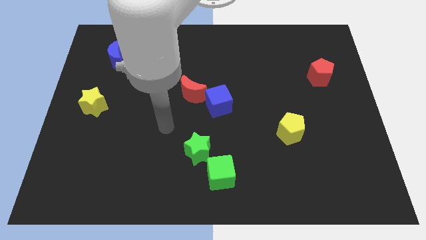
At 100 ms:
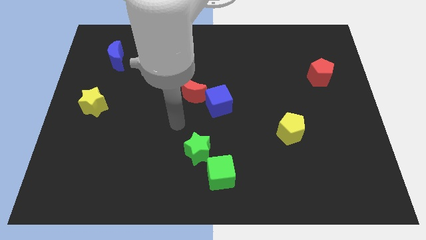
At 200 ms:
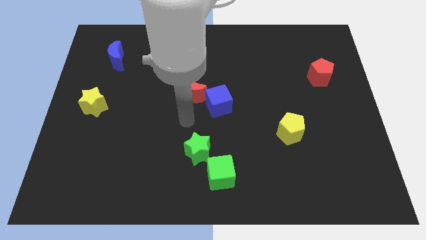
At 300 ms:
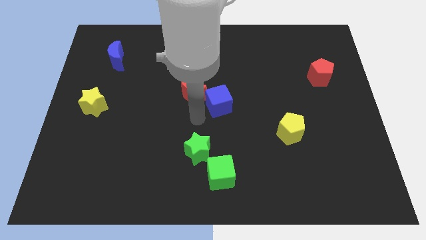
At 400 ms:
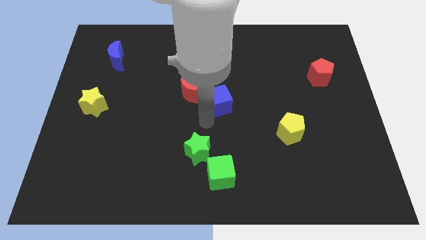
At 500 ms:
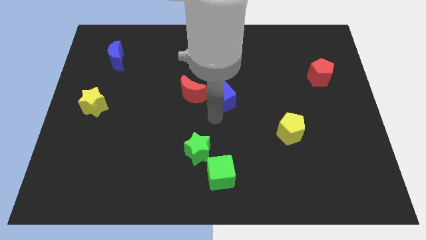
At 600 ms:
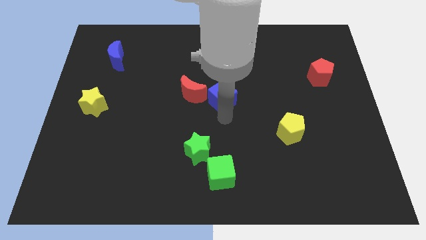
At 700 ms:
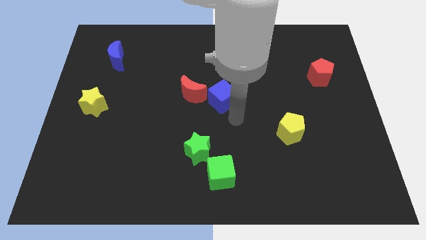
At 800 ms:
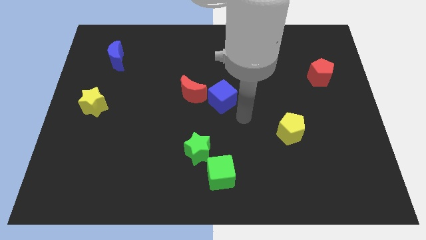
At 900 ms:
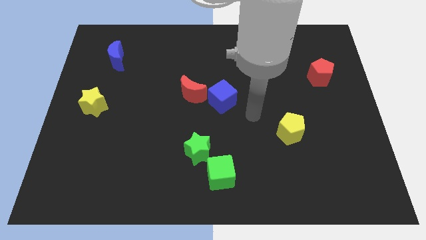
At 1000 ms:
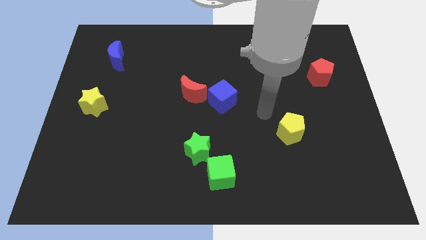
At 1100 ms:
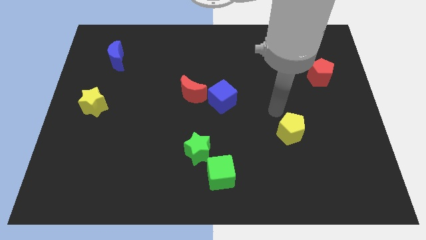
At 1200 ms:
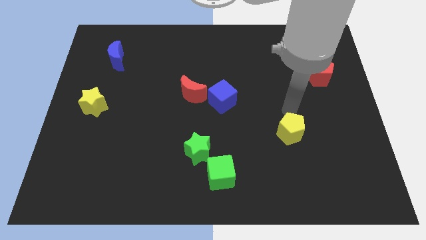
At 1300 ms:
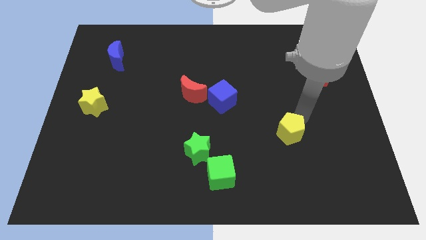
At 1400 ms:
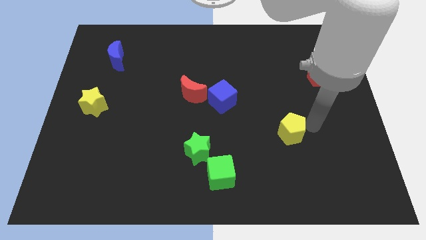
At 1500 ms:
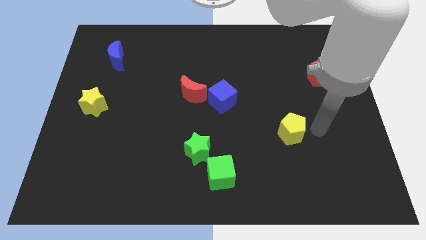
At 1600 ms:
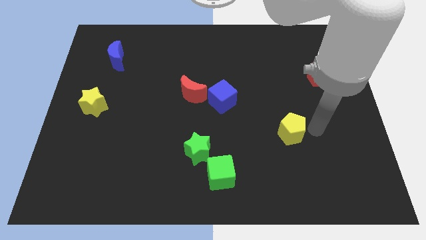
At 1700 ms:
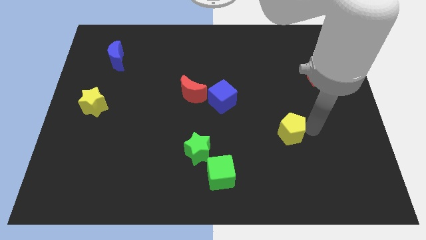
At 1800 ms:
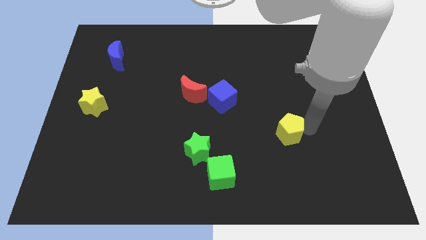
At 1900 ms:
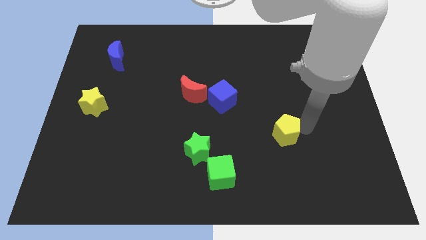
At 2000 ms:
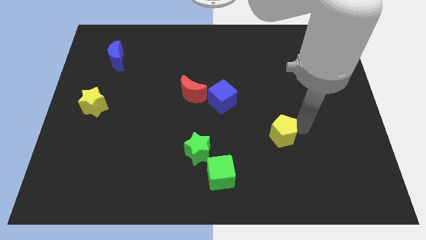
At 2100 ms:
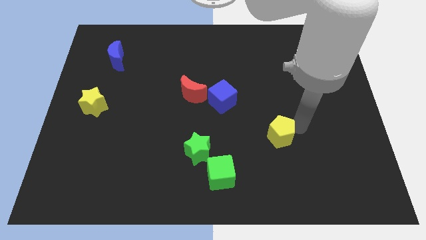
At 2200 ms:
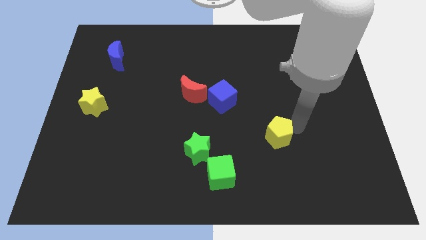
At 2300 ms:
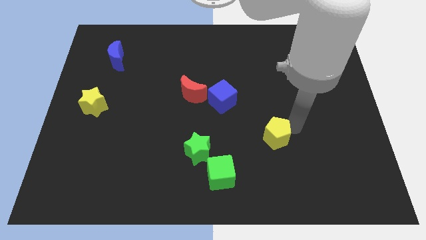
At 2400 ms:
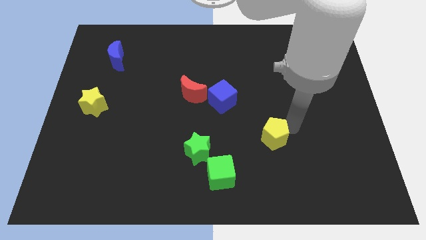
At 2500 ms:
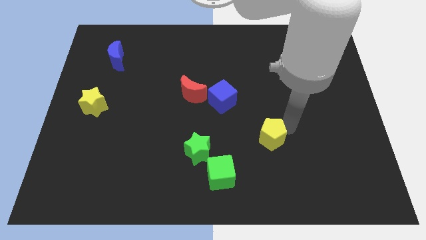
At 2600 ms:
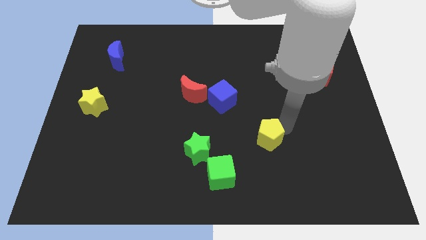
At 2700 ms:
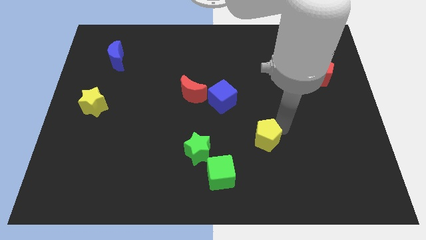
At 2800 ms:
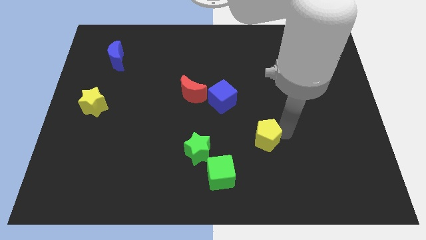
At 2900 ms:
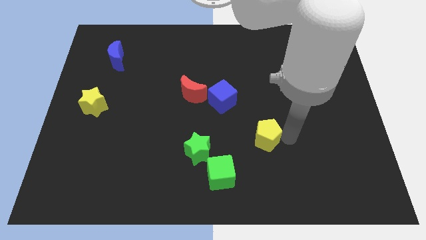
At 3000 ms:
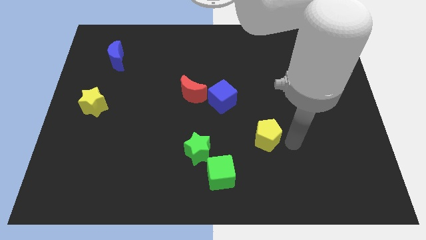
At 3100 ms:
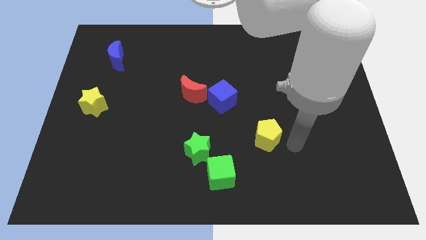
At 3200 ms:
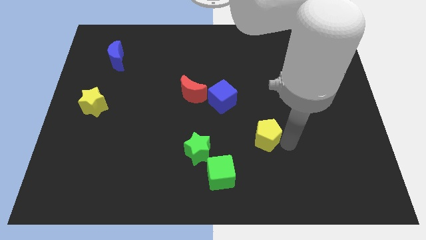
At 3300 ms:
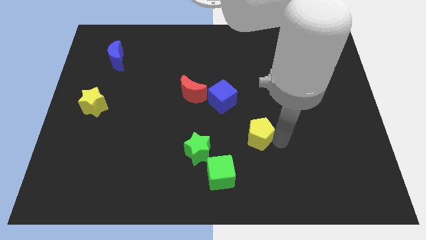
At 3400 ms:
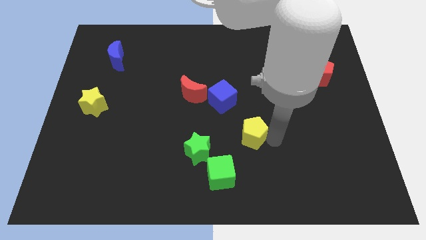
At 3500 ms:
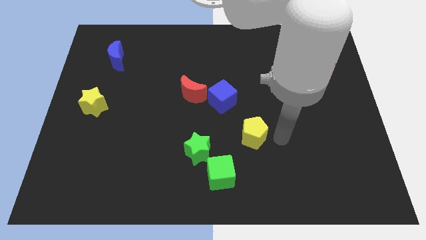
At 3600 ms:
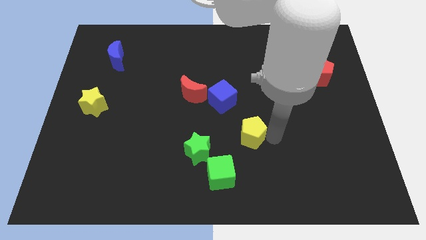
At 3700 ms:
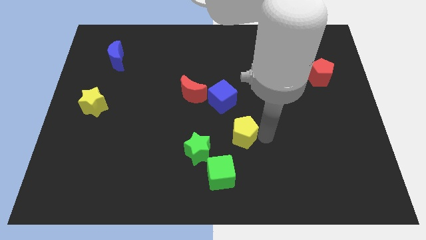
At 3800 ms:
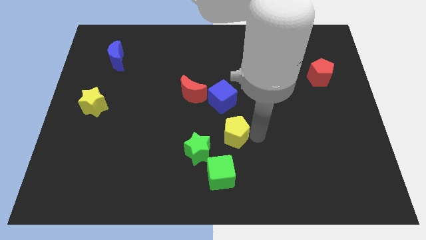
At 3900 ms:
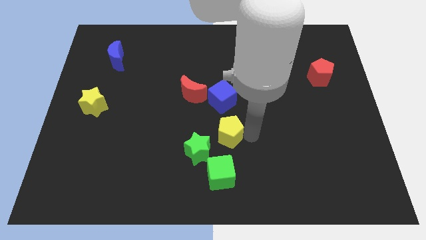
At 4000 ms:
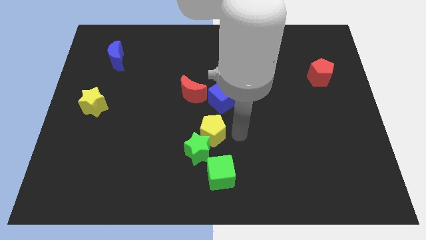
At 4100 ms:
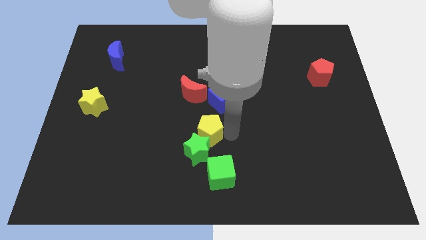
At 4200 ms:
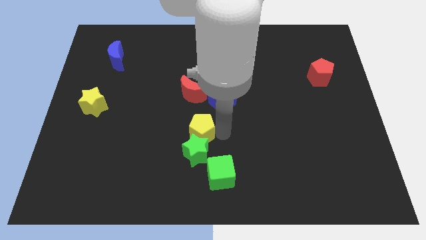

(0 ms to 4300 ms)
push the yellow pentagon left

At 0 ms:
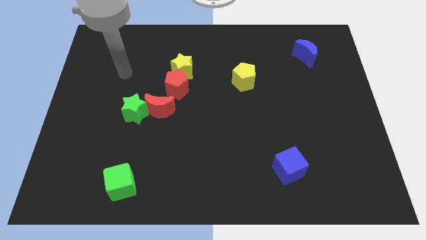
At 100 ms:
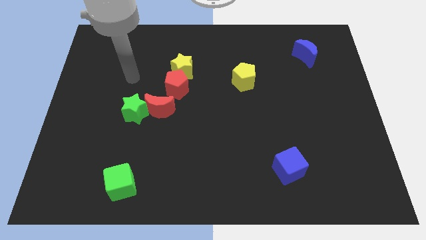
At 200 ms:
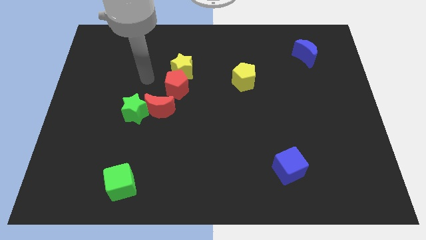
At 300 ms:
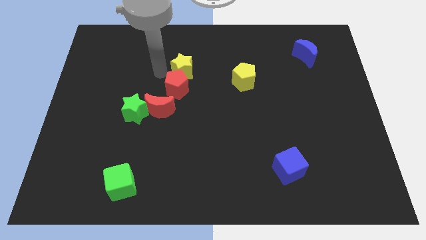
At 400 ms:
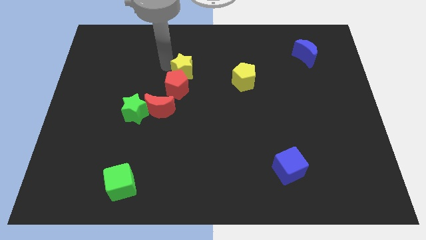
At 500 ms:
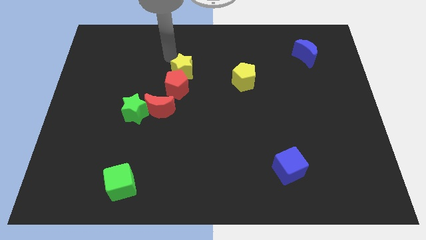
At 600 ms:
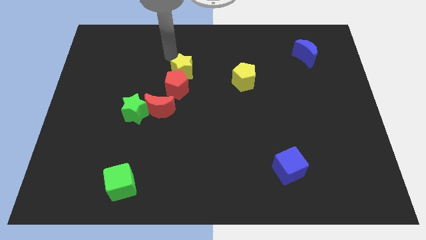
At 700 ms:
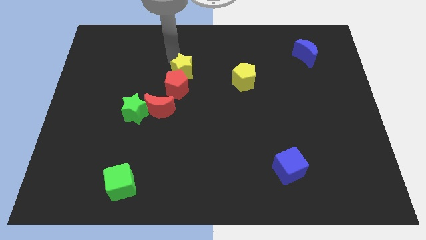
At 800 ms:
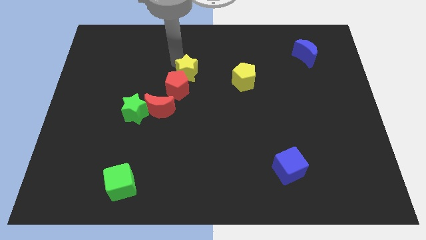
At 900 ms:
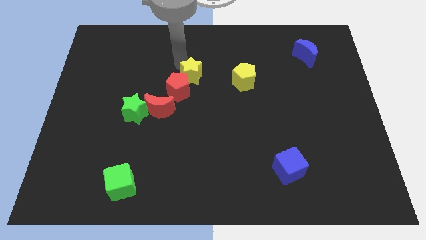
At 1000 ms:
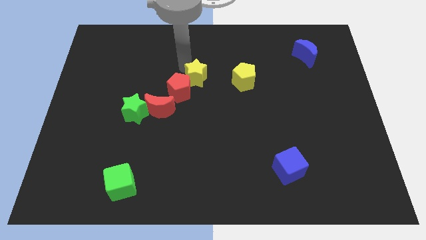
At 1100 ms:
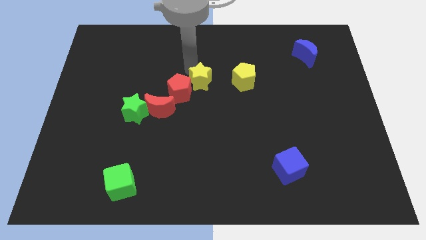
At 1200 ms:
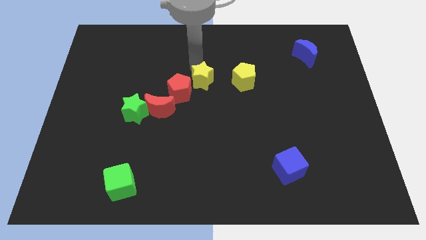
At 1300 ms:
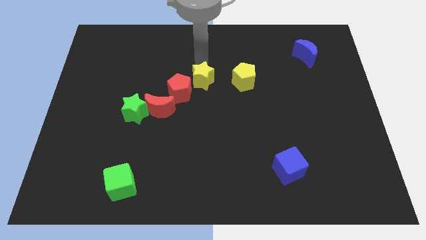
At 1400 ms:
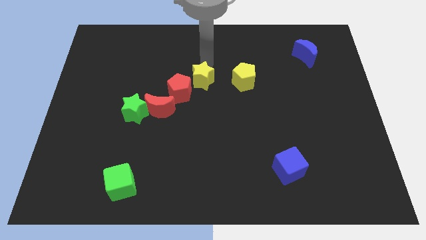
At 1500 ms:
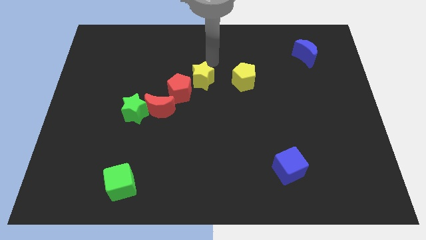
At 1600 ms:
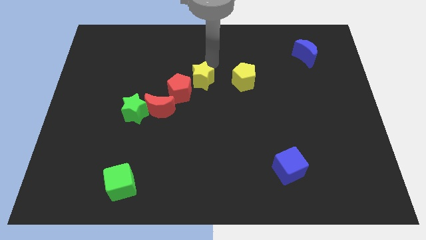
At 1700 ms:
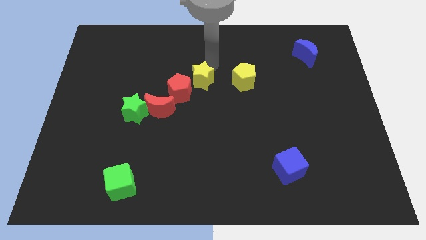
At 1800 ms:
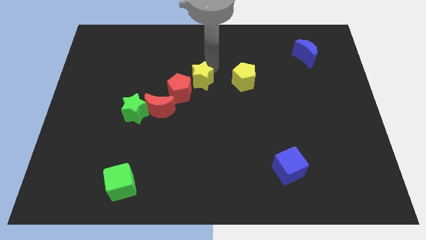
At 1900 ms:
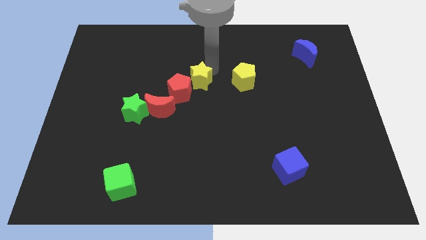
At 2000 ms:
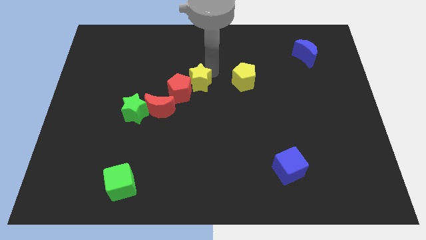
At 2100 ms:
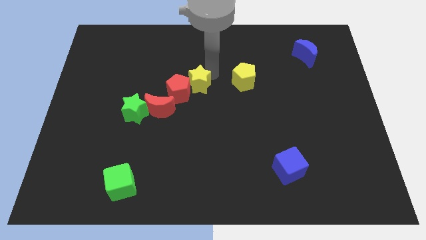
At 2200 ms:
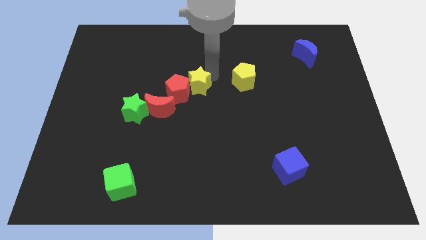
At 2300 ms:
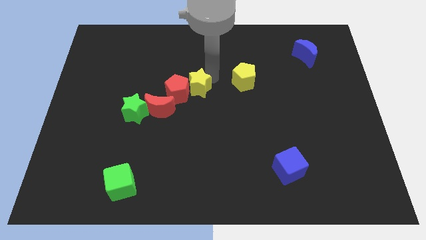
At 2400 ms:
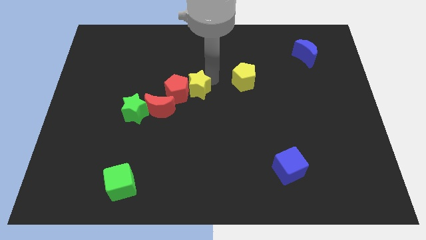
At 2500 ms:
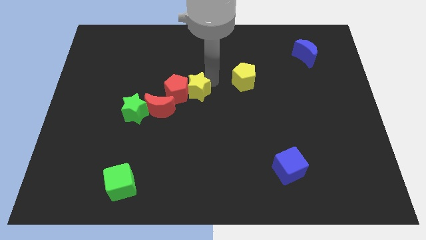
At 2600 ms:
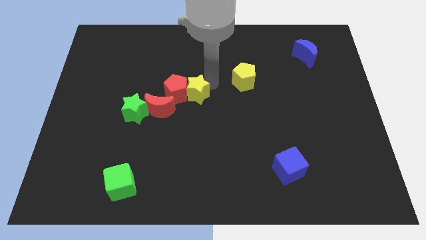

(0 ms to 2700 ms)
move the yellow star downwards a little bit

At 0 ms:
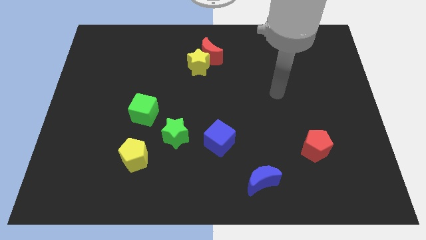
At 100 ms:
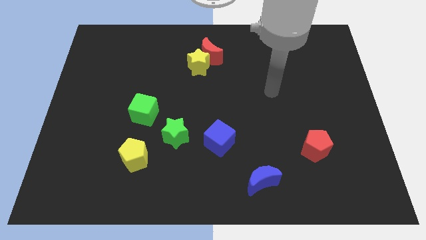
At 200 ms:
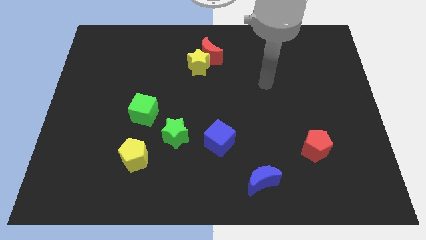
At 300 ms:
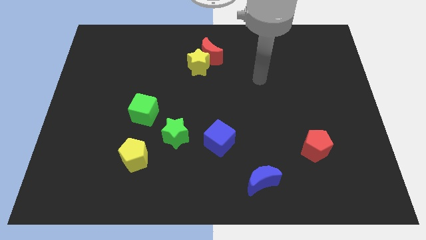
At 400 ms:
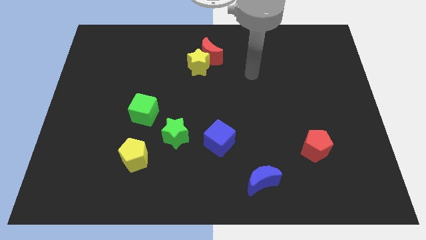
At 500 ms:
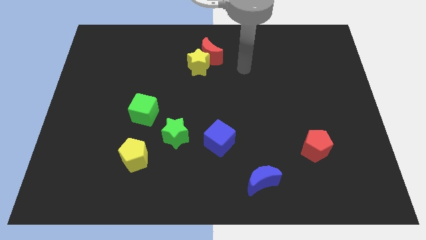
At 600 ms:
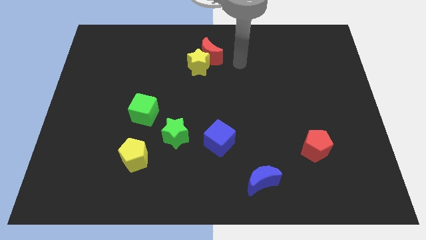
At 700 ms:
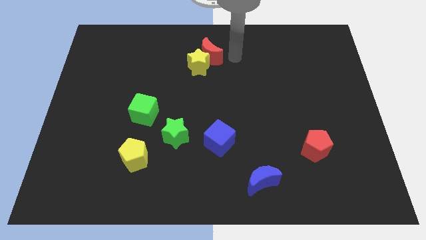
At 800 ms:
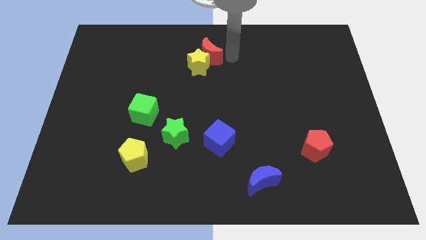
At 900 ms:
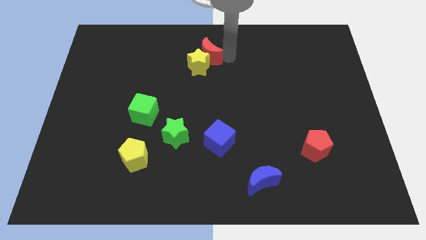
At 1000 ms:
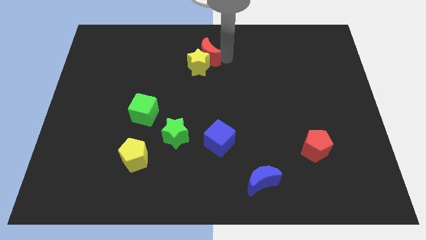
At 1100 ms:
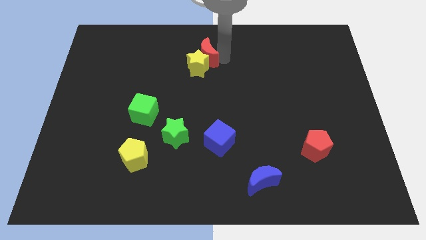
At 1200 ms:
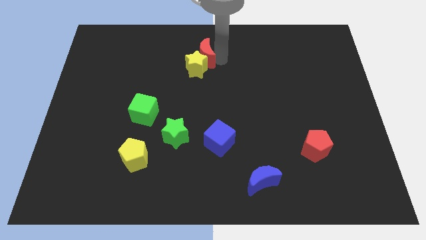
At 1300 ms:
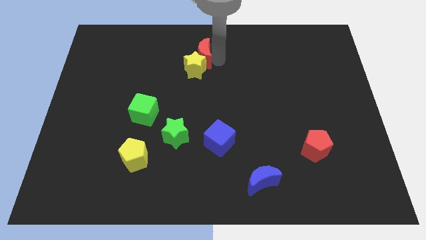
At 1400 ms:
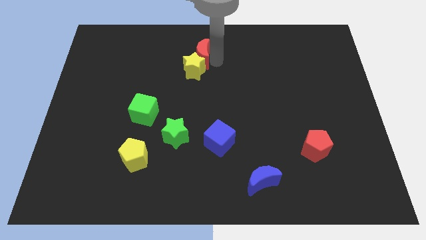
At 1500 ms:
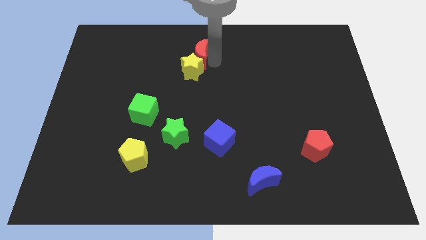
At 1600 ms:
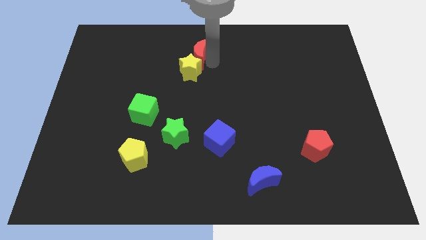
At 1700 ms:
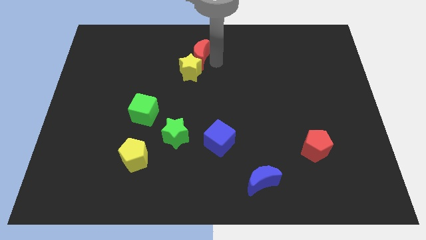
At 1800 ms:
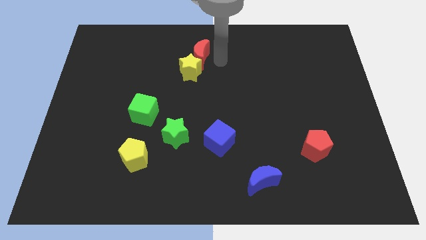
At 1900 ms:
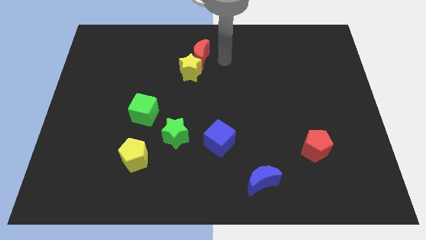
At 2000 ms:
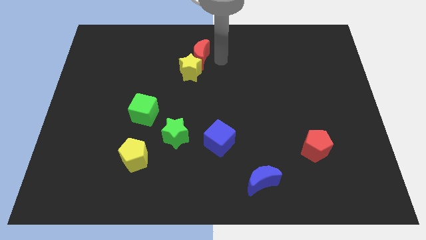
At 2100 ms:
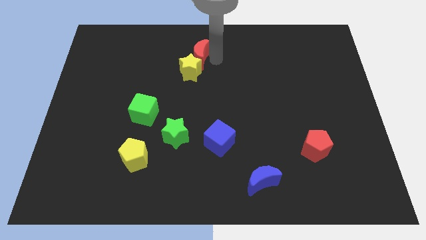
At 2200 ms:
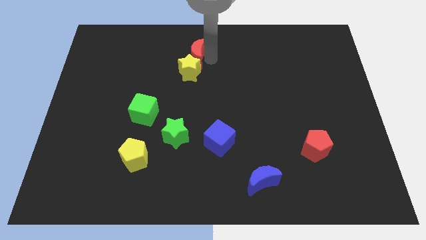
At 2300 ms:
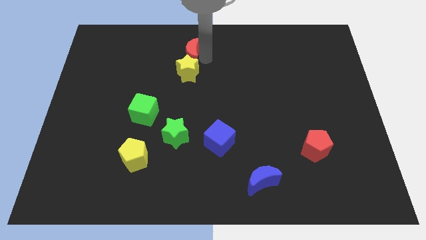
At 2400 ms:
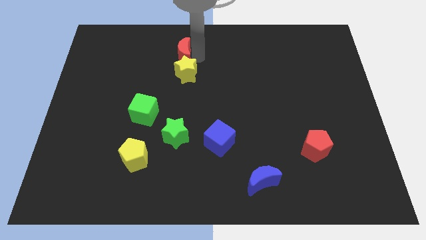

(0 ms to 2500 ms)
move the red moon slightly left
